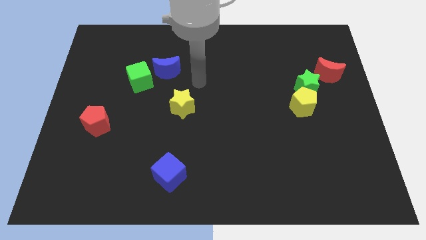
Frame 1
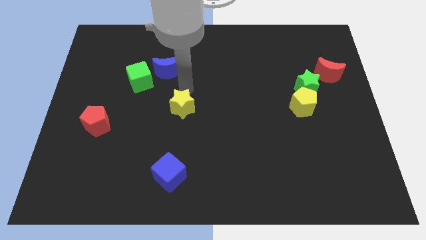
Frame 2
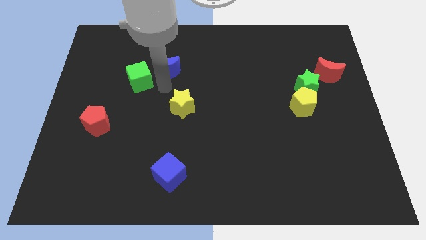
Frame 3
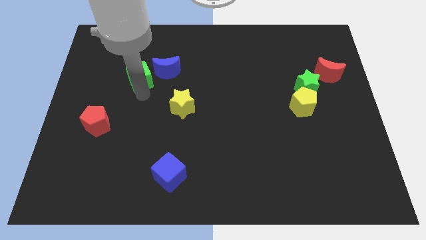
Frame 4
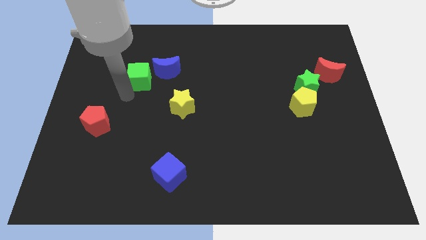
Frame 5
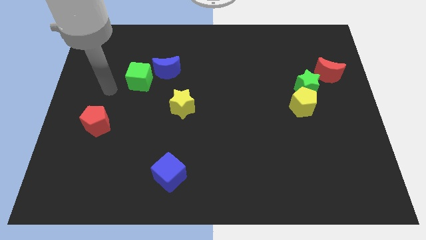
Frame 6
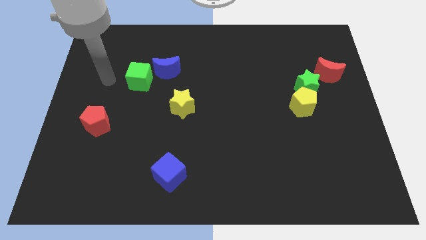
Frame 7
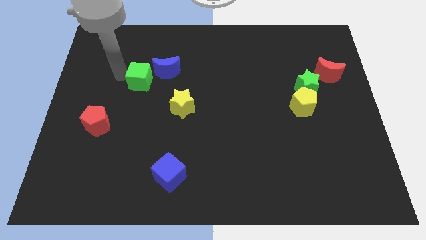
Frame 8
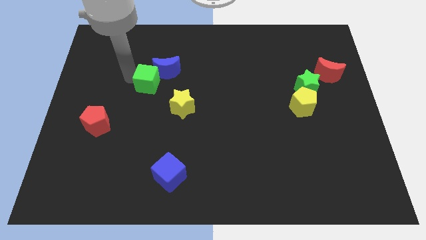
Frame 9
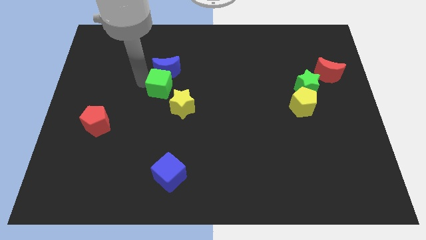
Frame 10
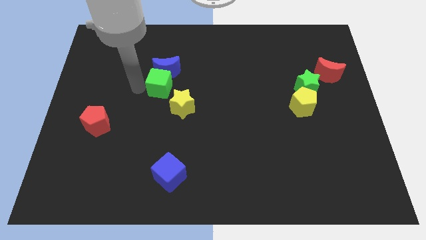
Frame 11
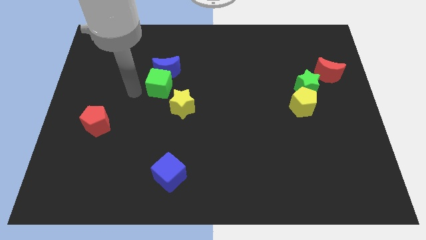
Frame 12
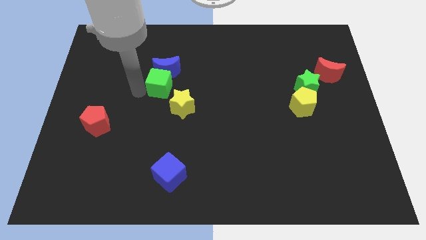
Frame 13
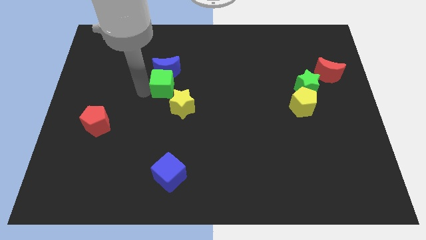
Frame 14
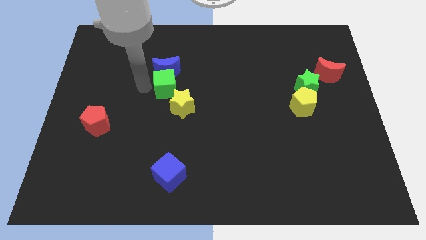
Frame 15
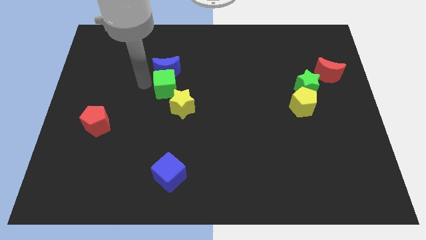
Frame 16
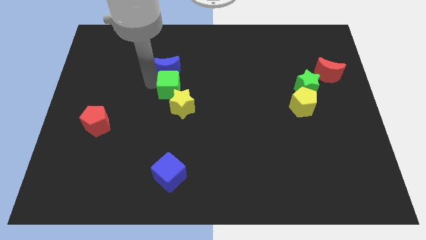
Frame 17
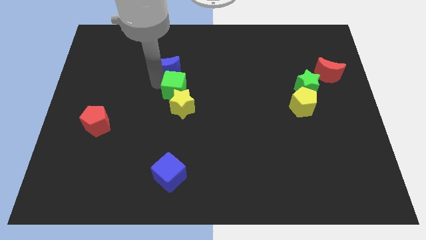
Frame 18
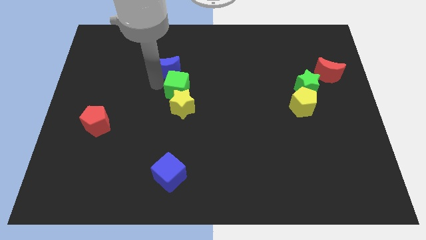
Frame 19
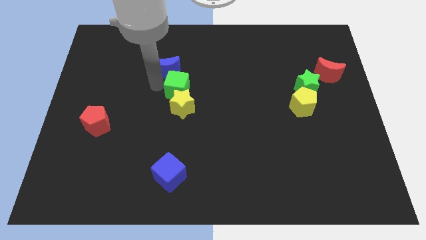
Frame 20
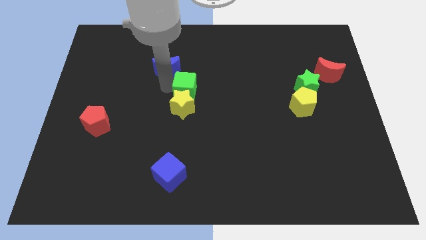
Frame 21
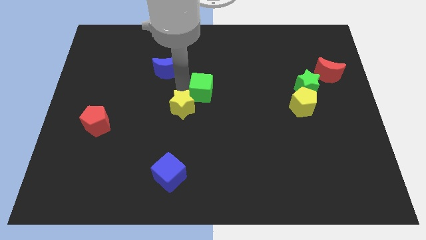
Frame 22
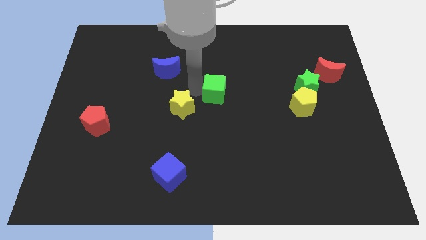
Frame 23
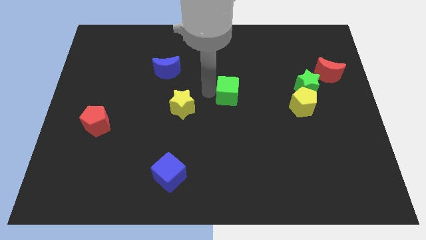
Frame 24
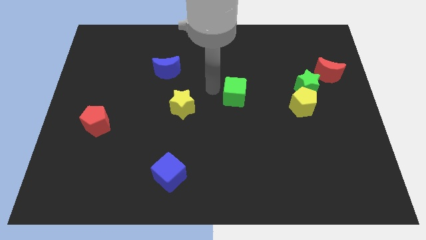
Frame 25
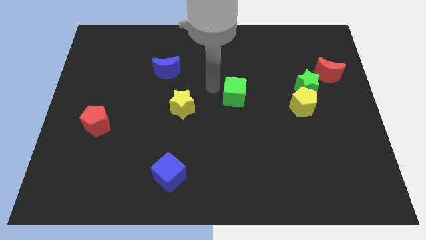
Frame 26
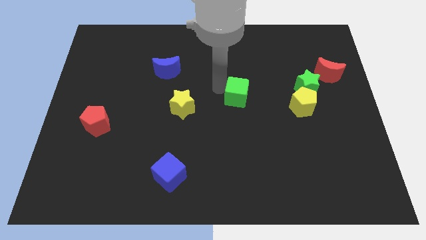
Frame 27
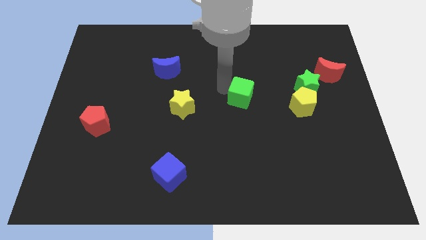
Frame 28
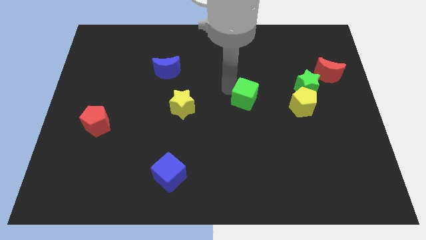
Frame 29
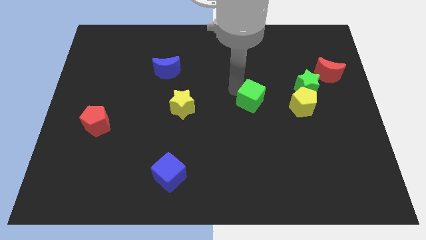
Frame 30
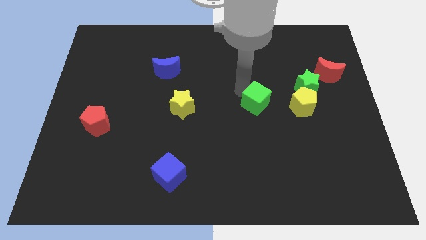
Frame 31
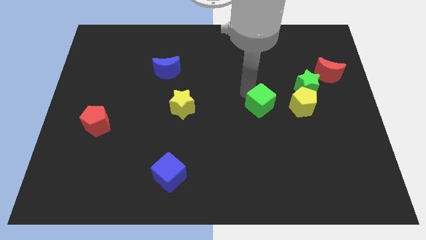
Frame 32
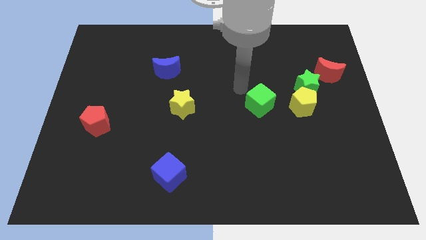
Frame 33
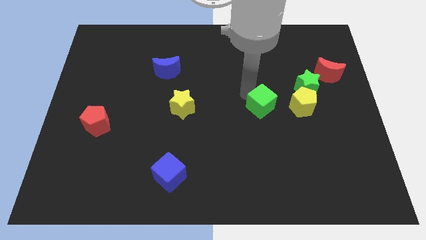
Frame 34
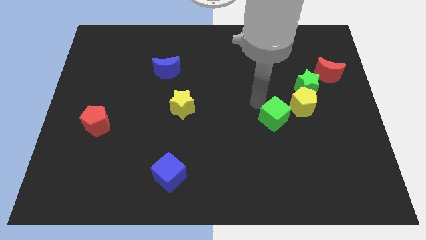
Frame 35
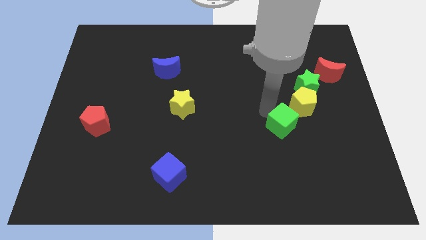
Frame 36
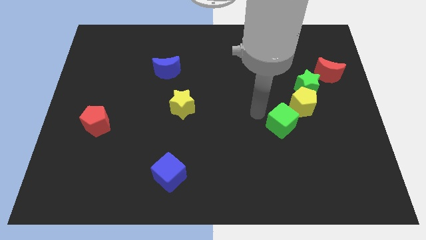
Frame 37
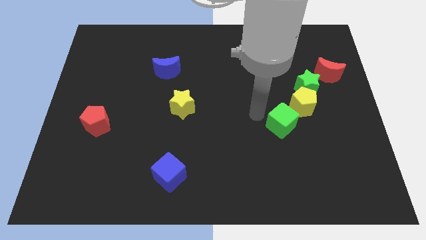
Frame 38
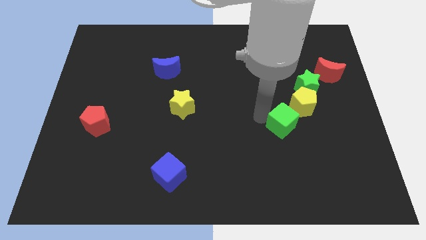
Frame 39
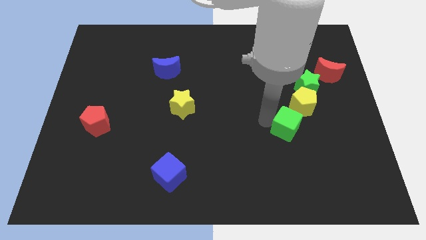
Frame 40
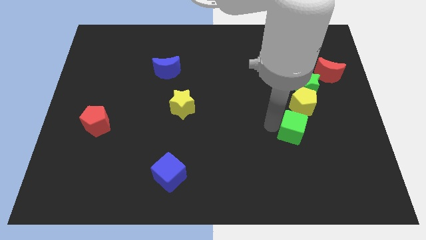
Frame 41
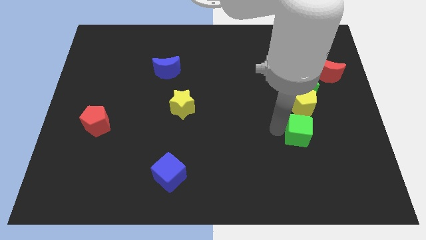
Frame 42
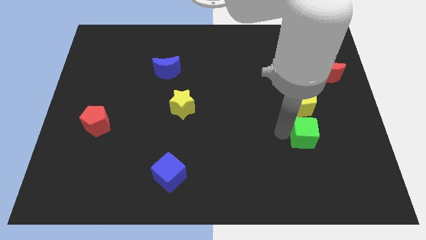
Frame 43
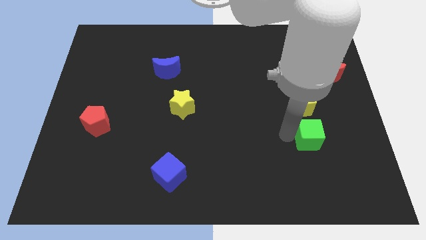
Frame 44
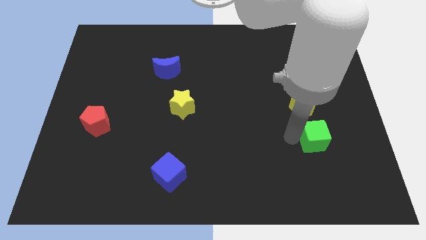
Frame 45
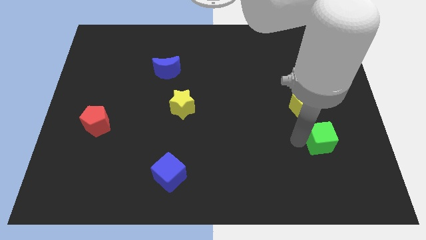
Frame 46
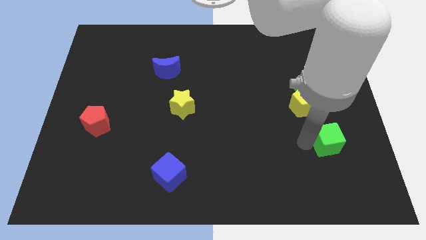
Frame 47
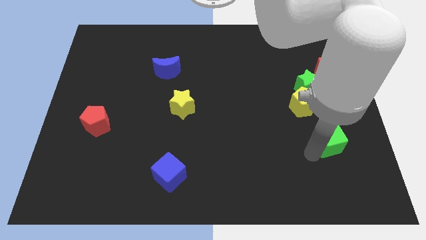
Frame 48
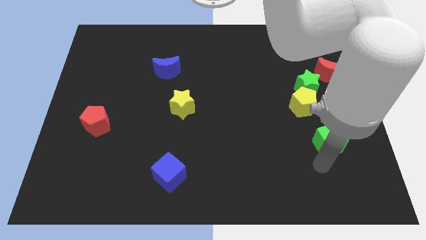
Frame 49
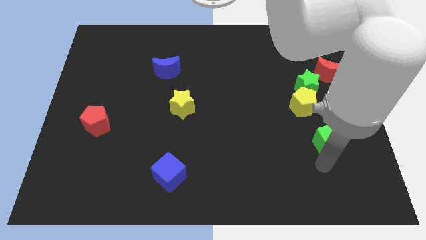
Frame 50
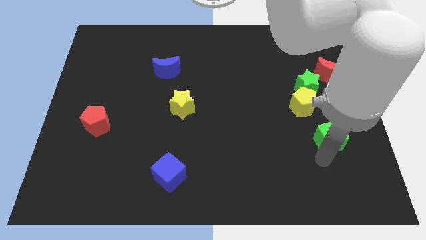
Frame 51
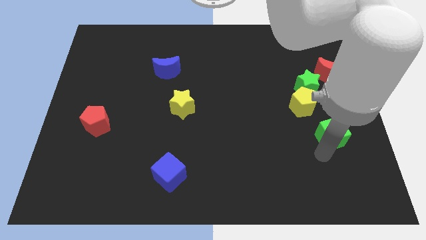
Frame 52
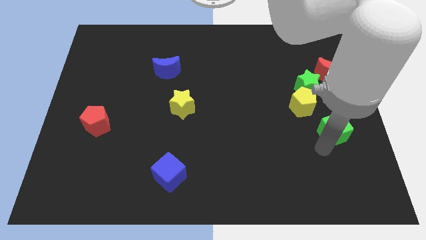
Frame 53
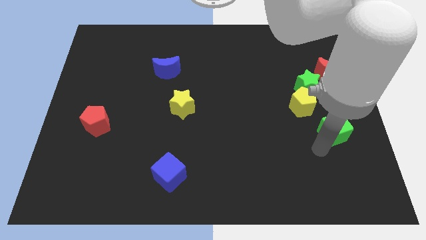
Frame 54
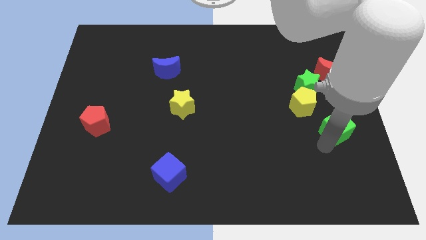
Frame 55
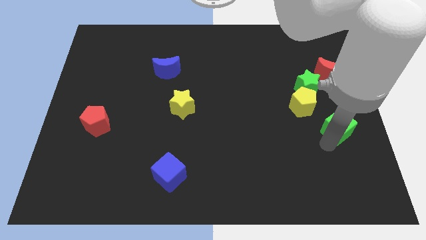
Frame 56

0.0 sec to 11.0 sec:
move the green cube to the right side of the board

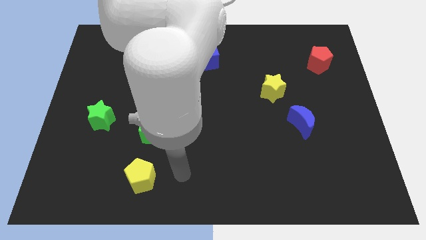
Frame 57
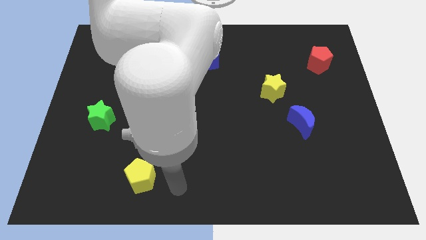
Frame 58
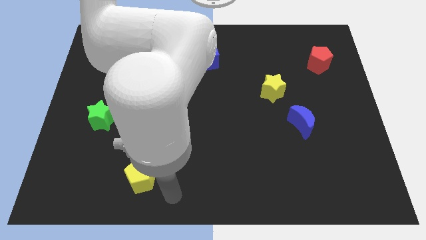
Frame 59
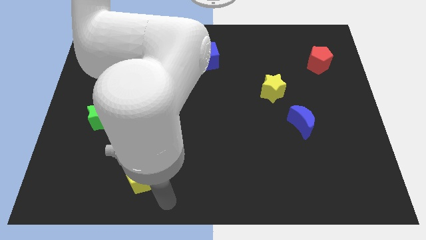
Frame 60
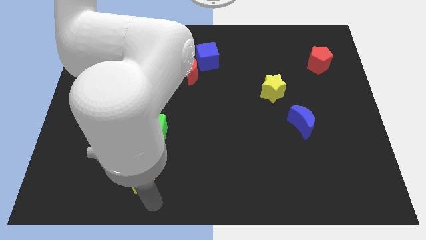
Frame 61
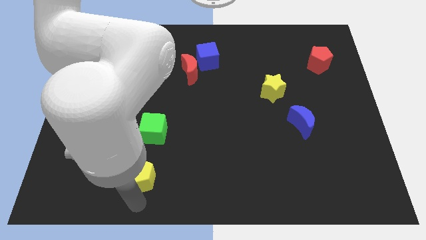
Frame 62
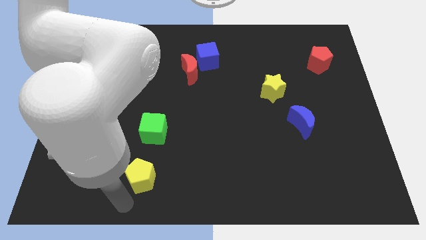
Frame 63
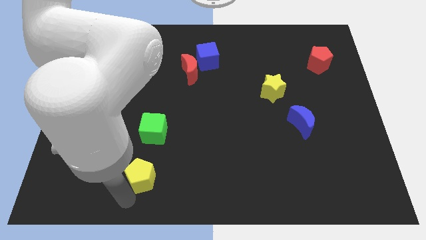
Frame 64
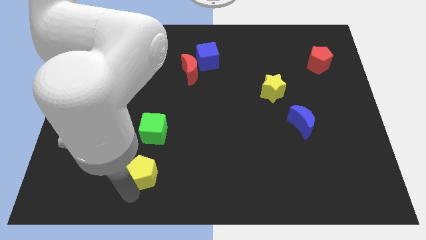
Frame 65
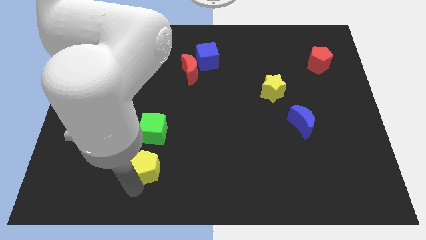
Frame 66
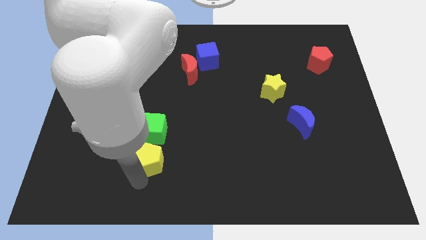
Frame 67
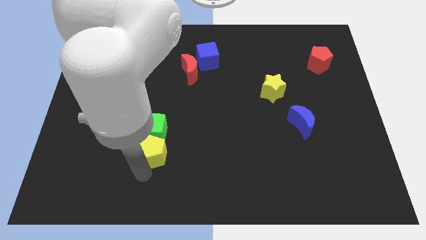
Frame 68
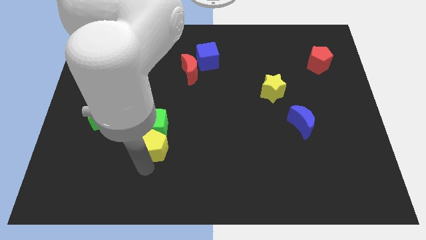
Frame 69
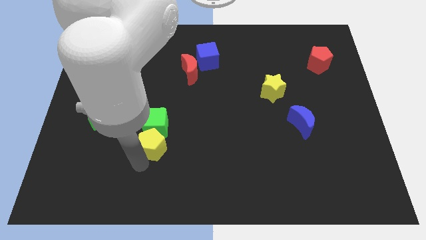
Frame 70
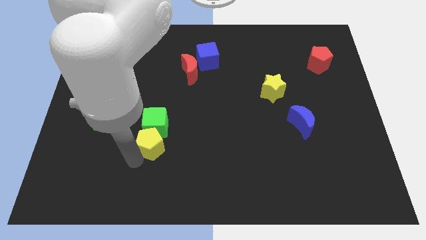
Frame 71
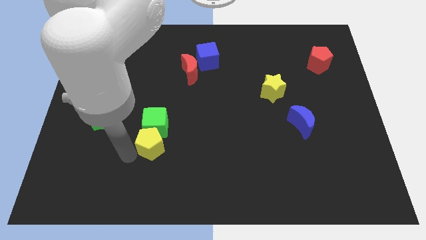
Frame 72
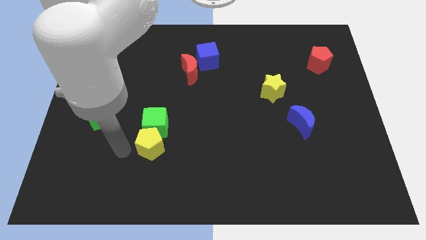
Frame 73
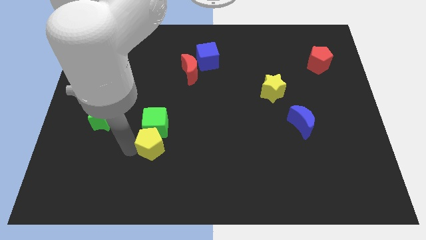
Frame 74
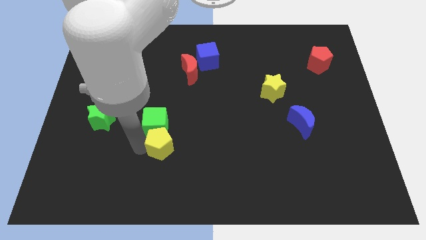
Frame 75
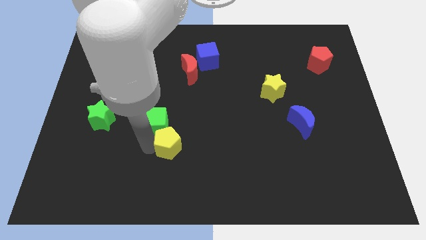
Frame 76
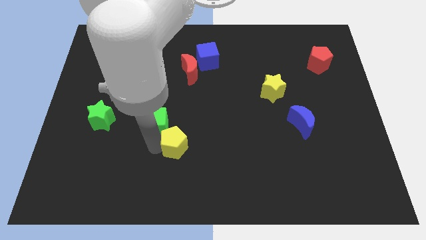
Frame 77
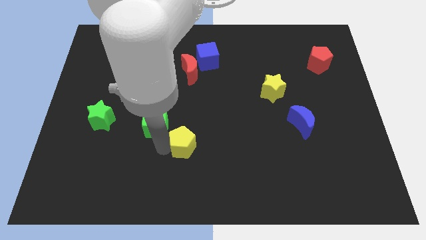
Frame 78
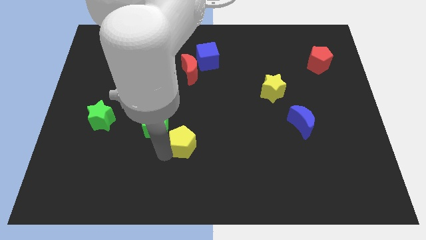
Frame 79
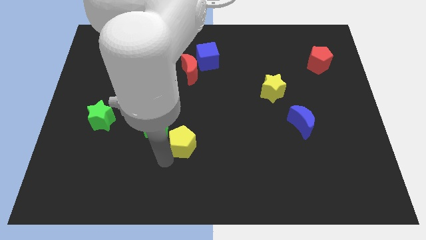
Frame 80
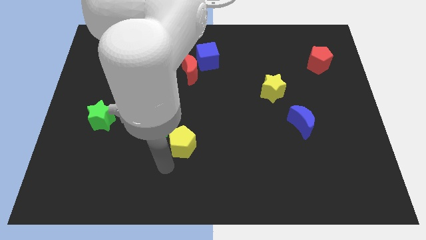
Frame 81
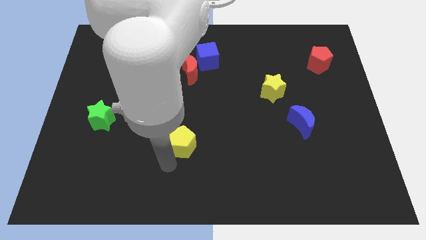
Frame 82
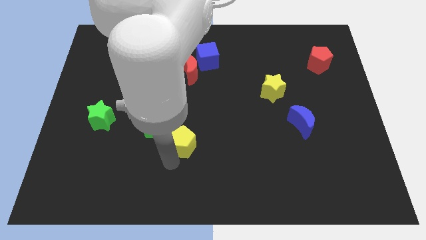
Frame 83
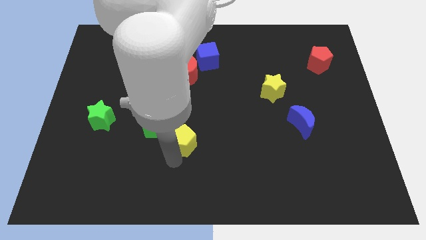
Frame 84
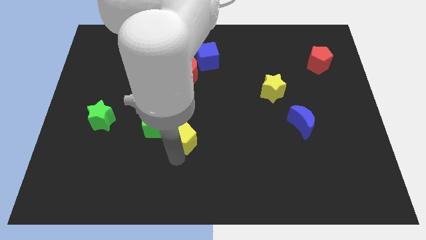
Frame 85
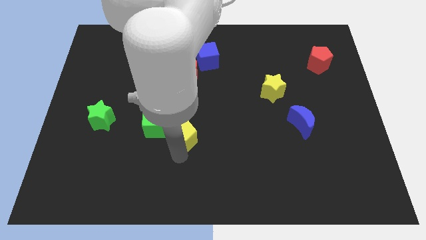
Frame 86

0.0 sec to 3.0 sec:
push the yellow pentagon to the middle of the board
